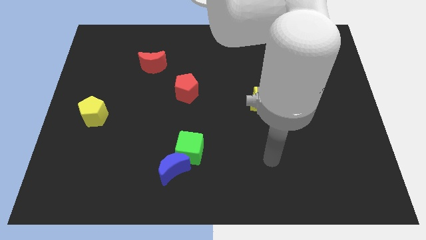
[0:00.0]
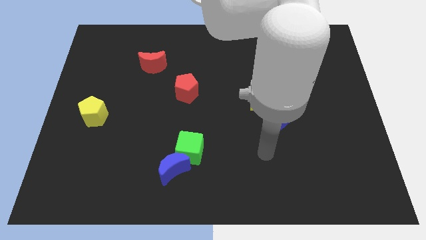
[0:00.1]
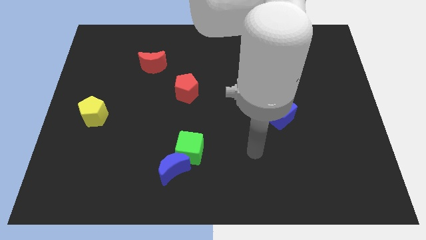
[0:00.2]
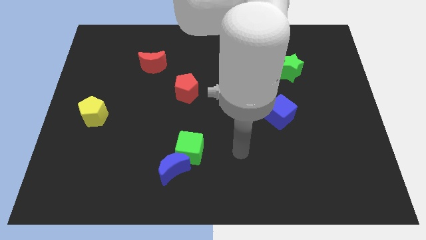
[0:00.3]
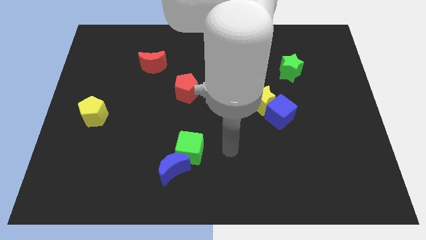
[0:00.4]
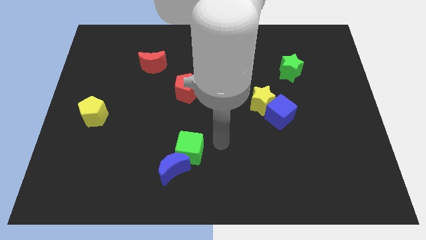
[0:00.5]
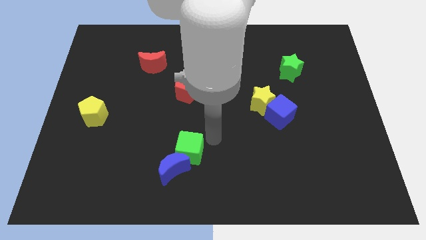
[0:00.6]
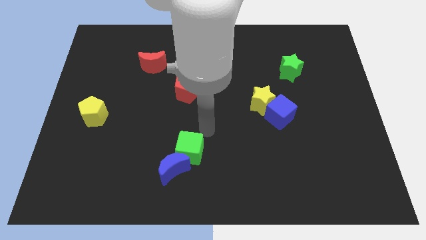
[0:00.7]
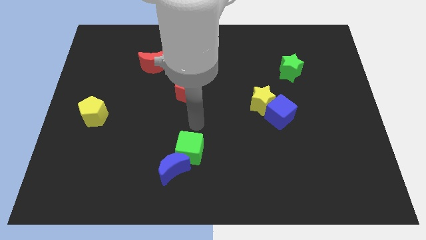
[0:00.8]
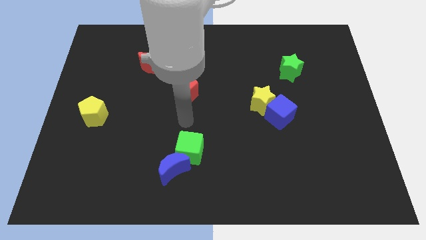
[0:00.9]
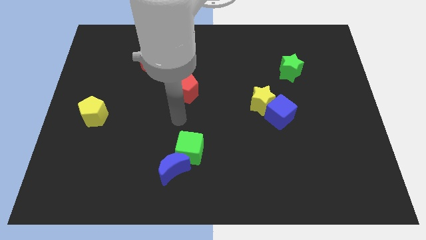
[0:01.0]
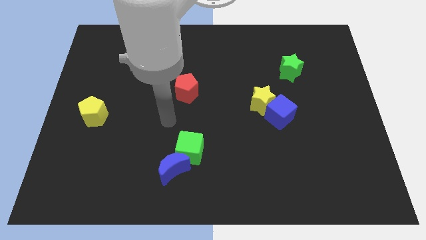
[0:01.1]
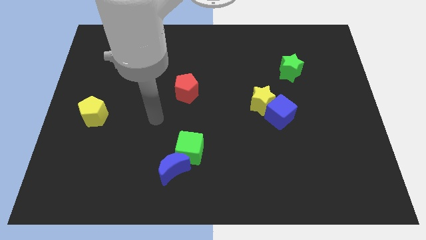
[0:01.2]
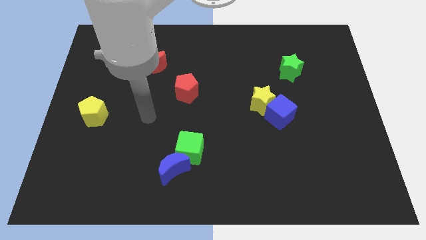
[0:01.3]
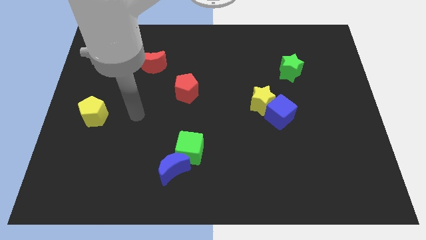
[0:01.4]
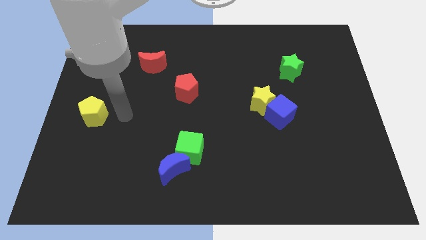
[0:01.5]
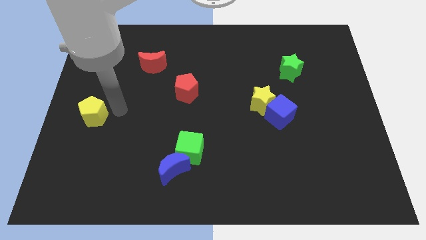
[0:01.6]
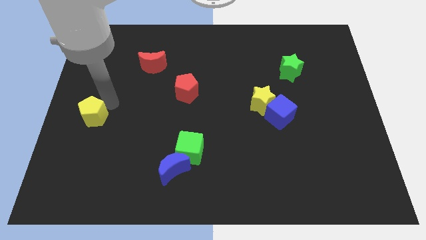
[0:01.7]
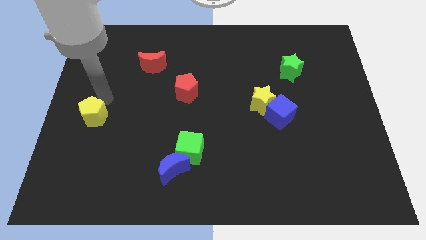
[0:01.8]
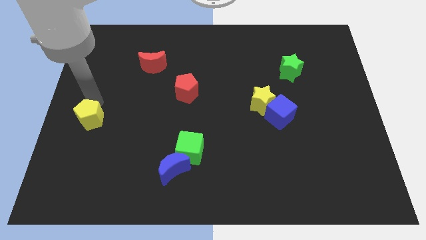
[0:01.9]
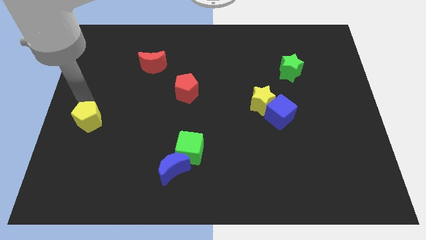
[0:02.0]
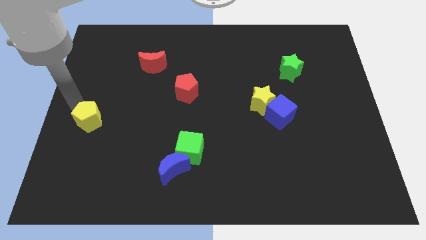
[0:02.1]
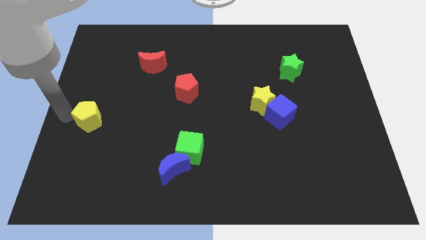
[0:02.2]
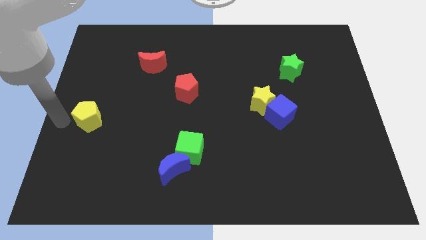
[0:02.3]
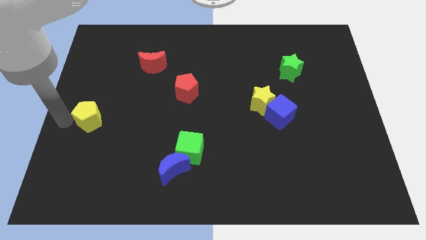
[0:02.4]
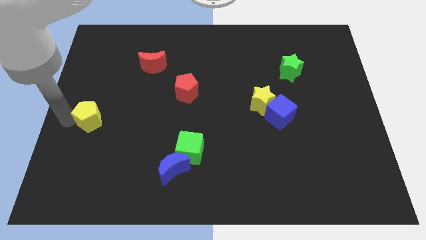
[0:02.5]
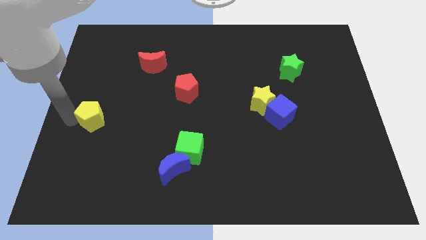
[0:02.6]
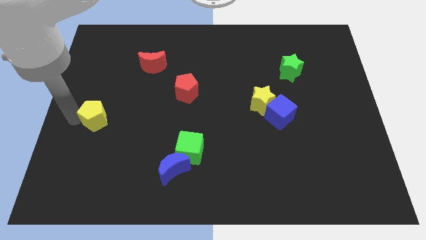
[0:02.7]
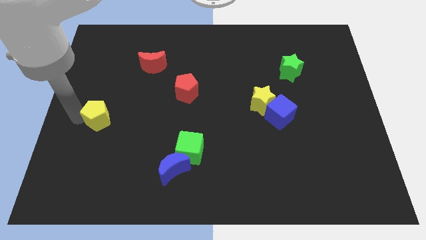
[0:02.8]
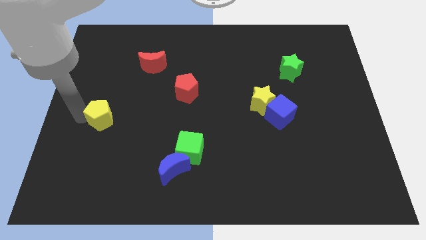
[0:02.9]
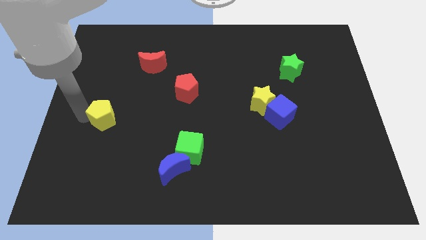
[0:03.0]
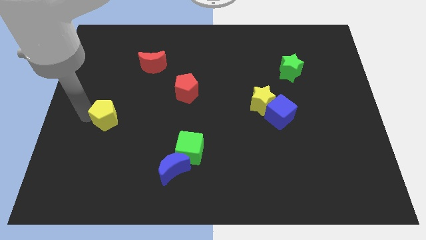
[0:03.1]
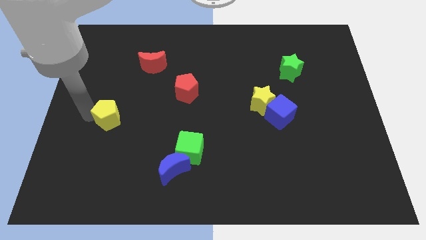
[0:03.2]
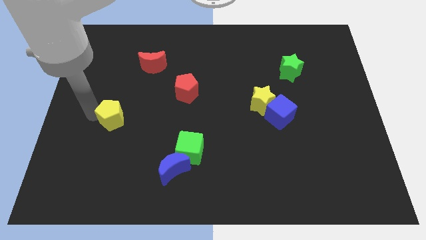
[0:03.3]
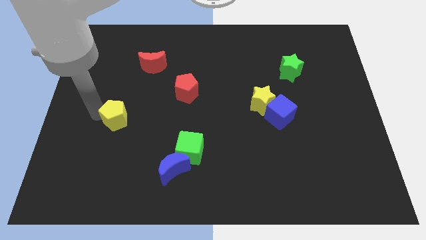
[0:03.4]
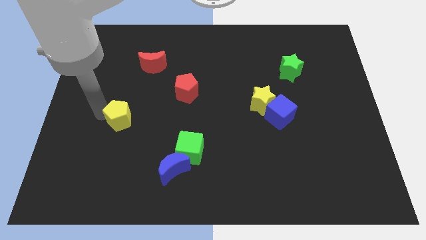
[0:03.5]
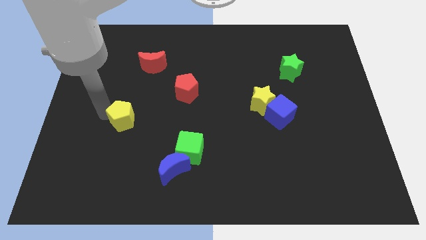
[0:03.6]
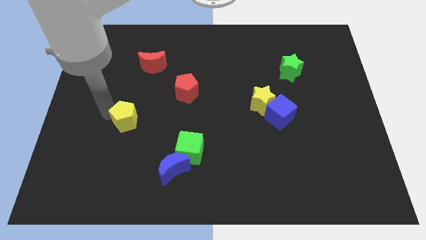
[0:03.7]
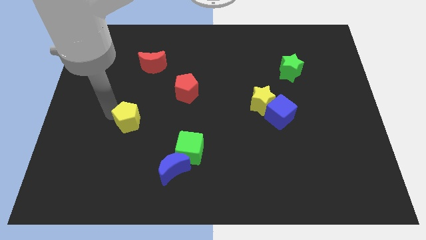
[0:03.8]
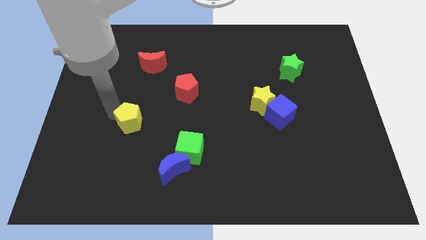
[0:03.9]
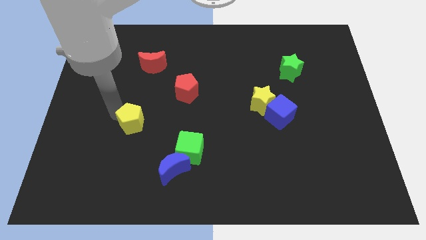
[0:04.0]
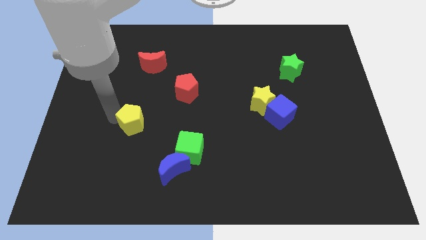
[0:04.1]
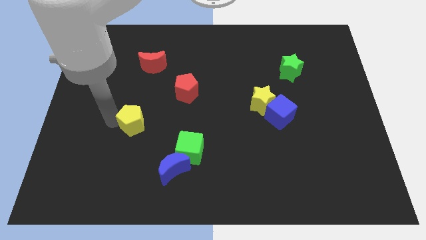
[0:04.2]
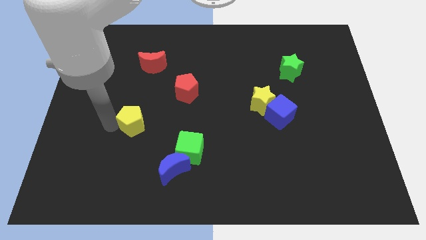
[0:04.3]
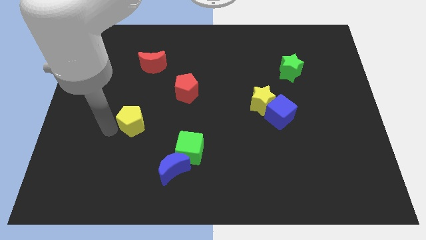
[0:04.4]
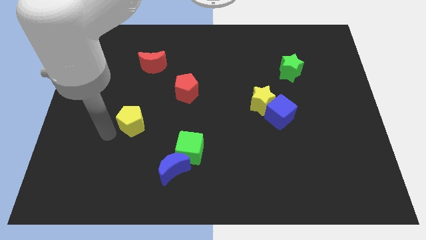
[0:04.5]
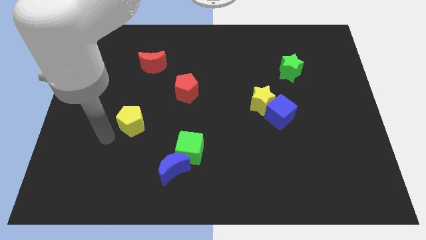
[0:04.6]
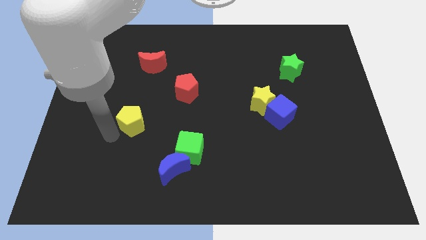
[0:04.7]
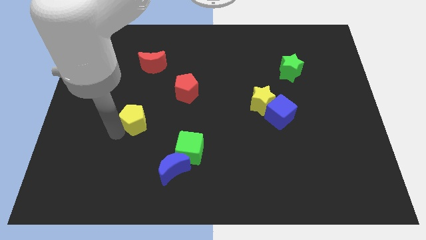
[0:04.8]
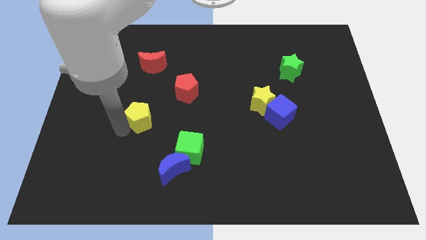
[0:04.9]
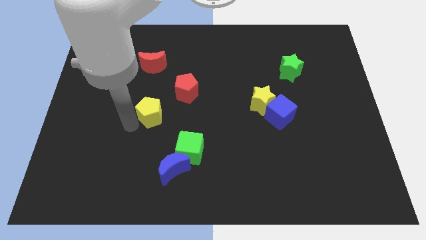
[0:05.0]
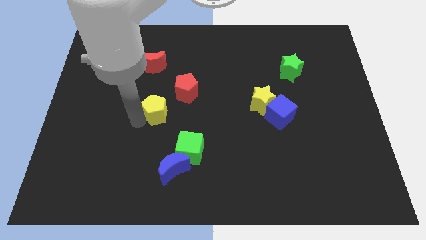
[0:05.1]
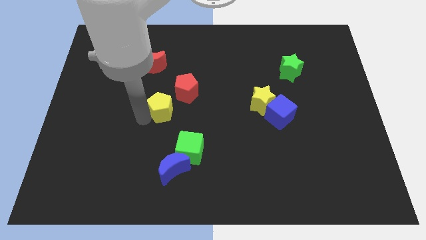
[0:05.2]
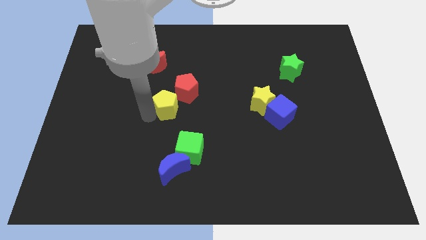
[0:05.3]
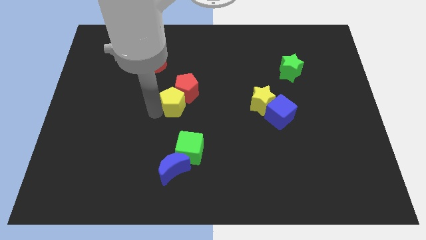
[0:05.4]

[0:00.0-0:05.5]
slide the yellow pentagon to the top of the green cube
